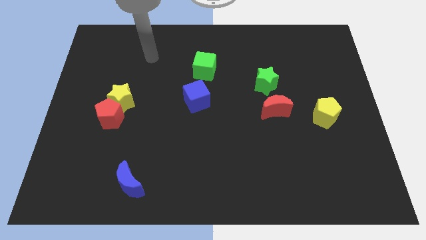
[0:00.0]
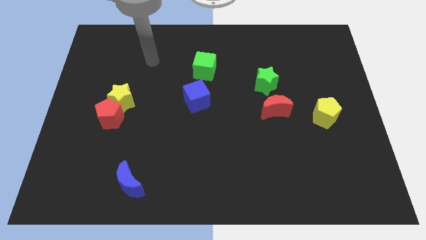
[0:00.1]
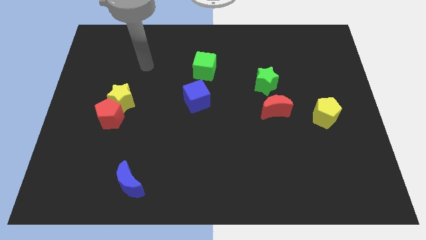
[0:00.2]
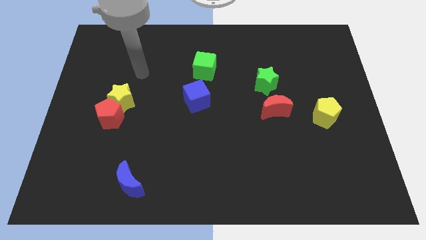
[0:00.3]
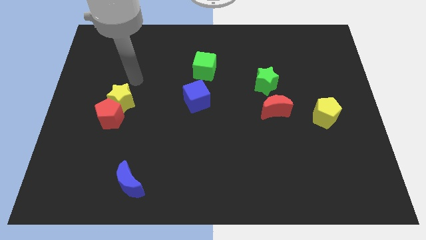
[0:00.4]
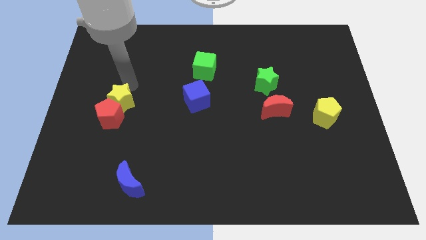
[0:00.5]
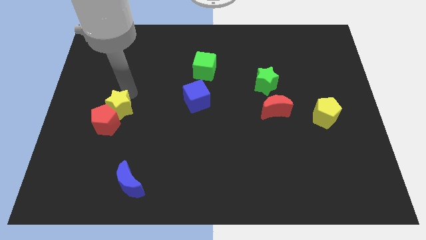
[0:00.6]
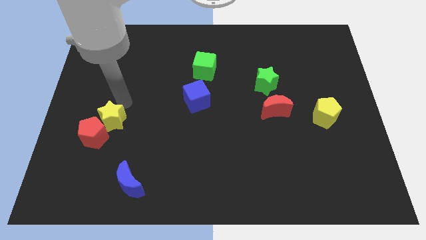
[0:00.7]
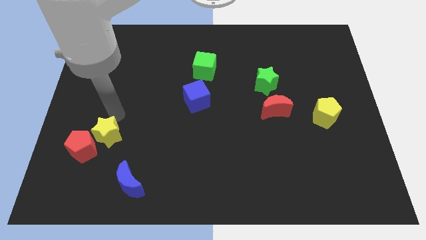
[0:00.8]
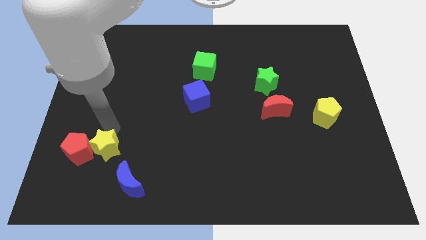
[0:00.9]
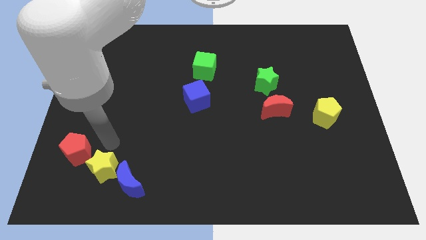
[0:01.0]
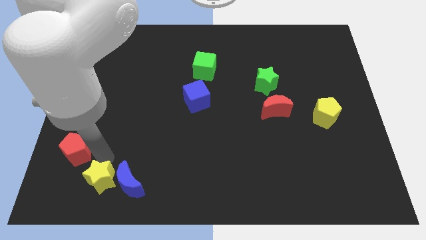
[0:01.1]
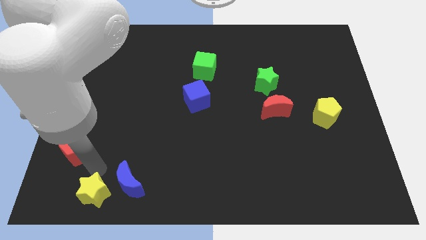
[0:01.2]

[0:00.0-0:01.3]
pull the red pentagon apart from the yellow star

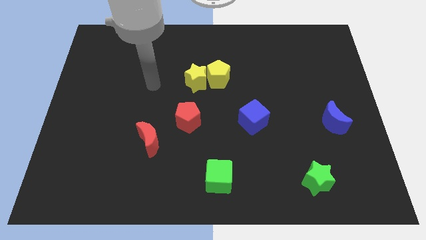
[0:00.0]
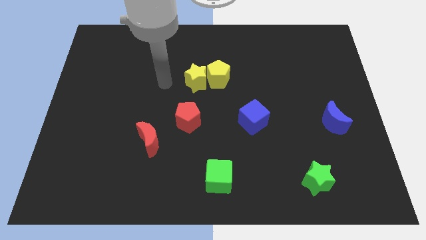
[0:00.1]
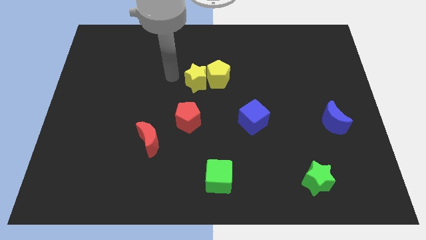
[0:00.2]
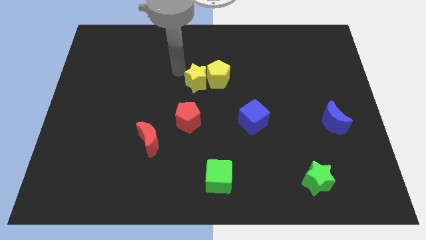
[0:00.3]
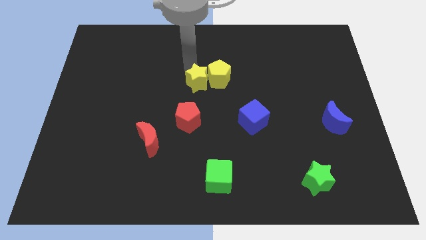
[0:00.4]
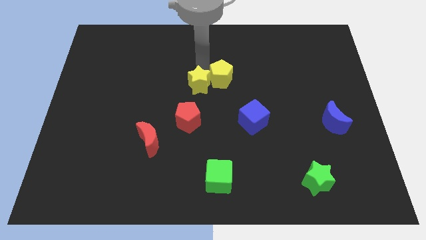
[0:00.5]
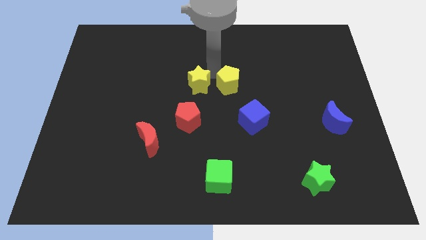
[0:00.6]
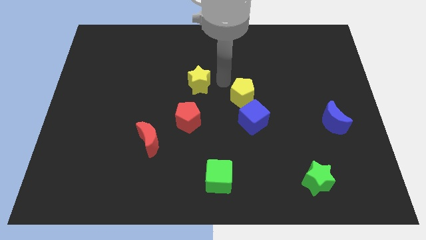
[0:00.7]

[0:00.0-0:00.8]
pull the yellow star apart from the yellow pentagon

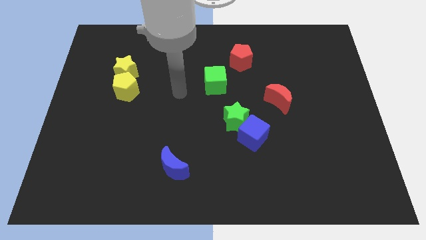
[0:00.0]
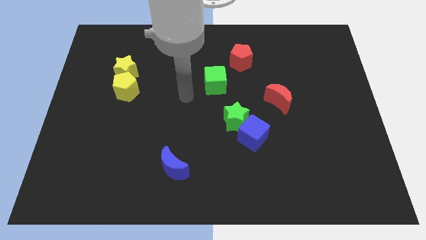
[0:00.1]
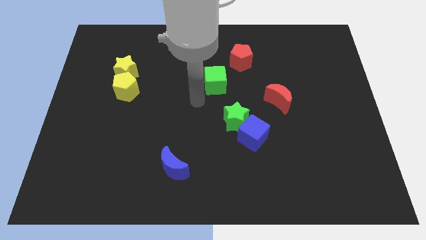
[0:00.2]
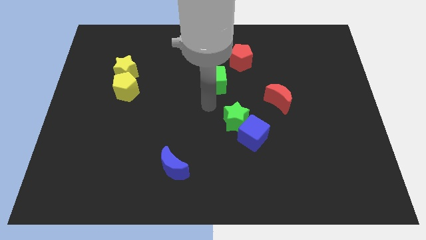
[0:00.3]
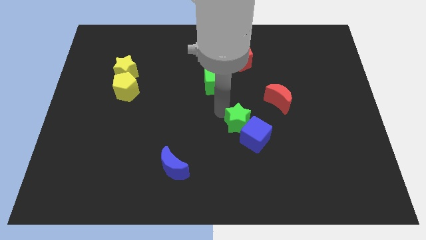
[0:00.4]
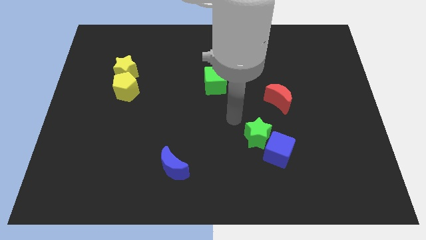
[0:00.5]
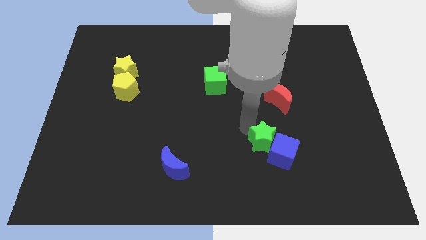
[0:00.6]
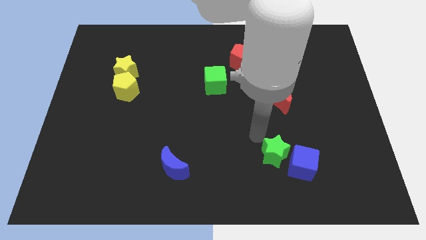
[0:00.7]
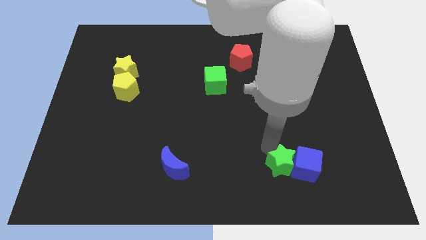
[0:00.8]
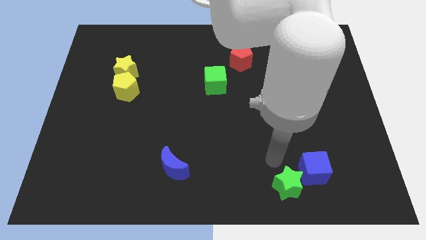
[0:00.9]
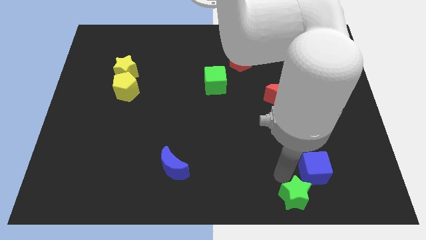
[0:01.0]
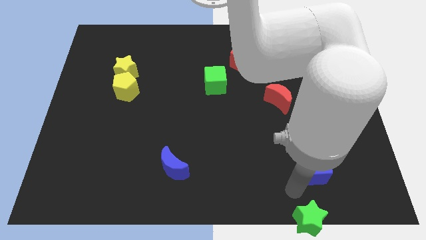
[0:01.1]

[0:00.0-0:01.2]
separate the blue cube from the green star

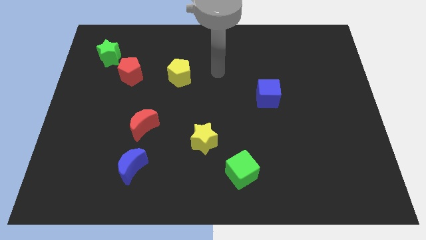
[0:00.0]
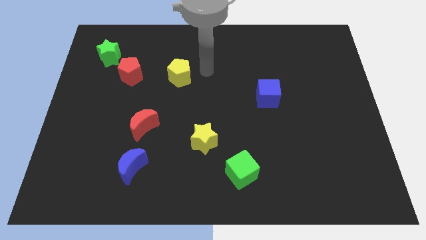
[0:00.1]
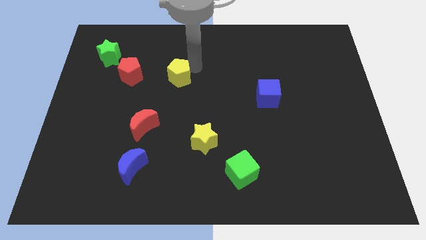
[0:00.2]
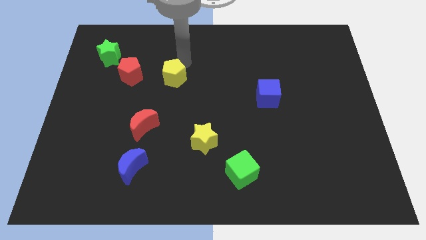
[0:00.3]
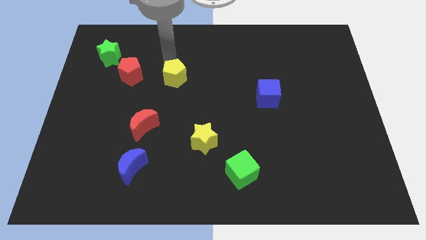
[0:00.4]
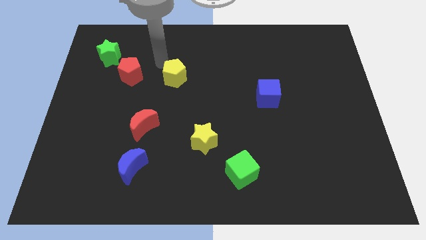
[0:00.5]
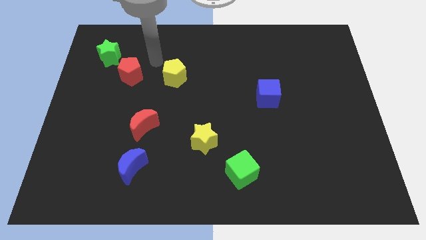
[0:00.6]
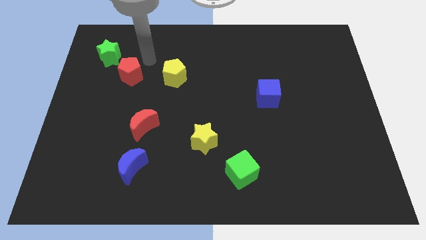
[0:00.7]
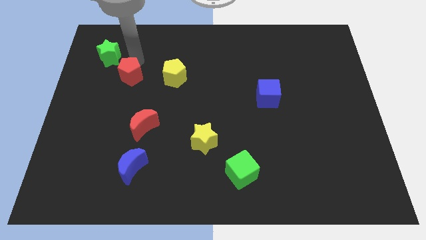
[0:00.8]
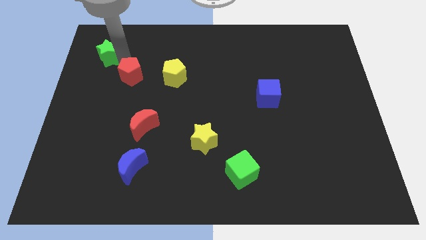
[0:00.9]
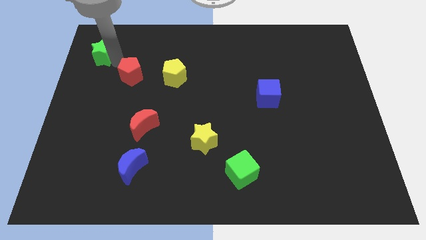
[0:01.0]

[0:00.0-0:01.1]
separate the red pentagon from the green star

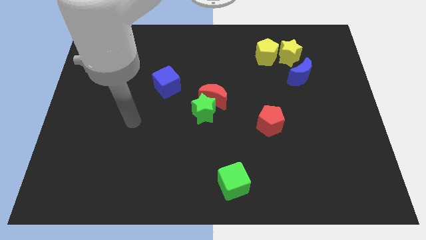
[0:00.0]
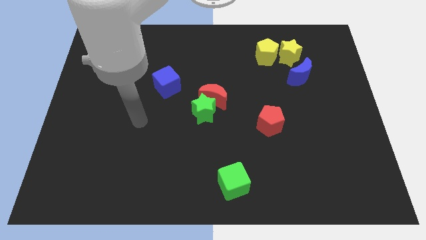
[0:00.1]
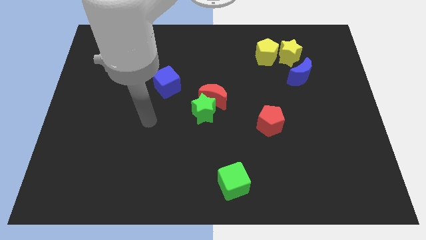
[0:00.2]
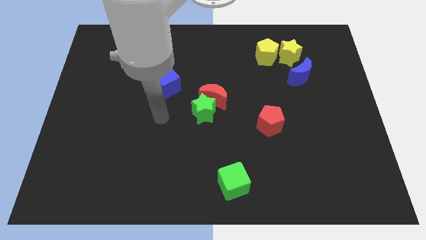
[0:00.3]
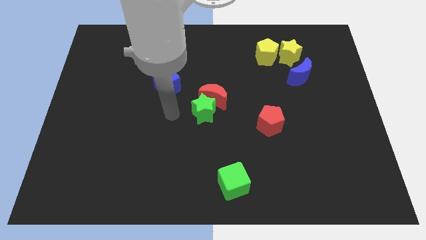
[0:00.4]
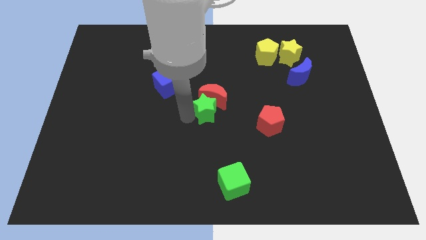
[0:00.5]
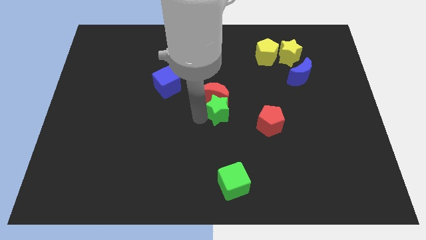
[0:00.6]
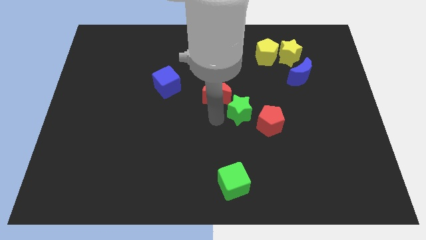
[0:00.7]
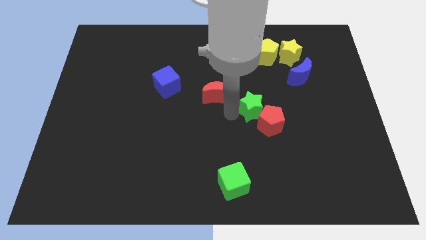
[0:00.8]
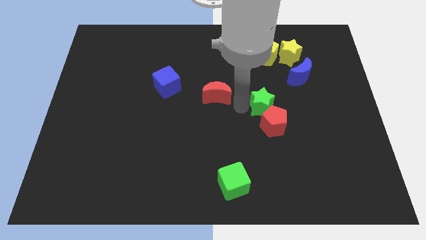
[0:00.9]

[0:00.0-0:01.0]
pull the red moon apart from the green star

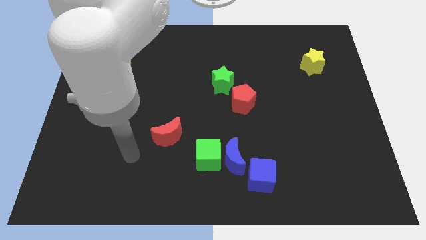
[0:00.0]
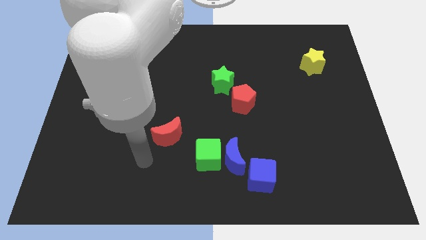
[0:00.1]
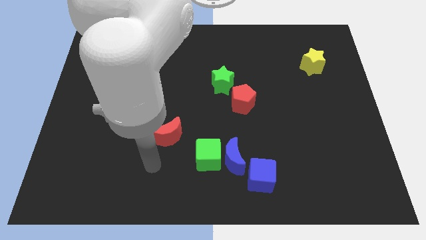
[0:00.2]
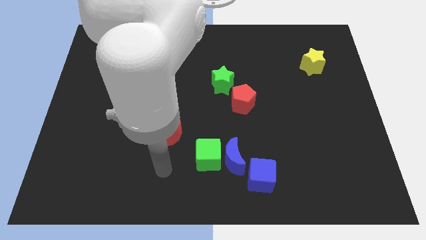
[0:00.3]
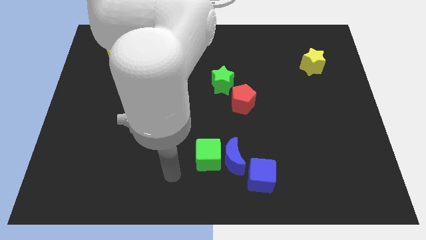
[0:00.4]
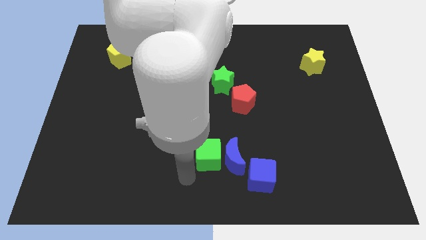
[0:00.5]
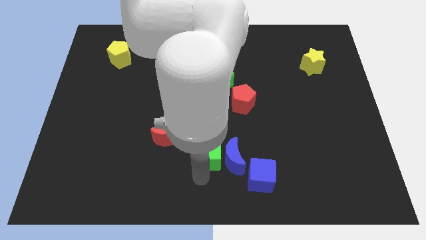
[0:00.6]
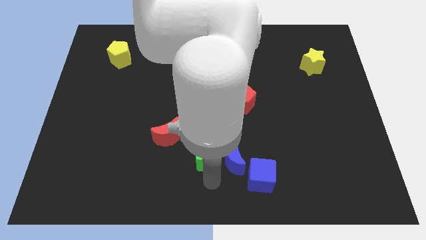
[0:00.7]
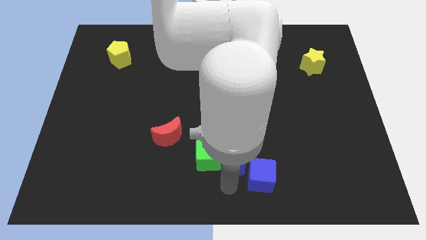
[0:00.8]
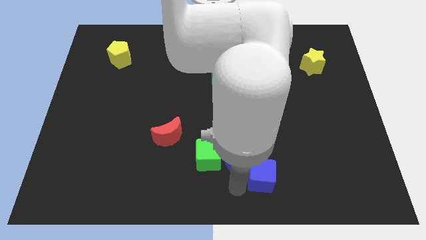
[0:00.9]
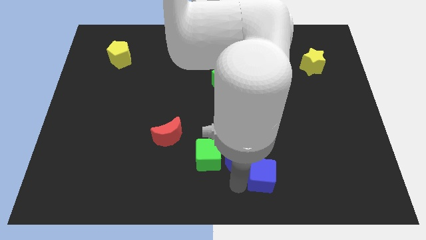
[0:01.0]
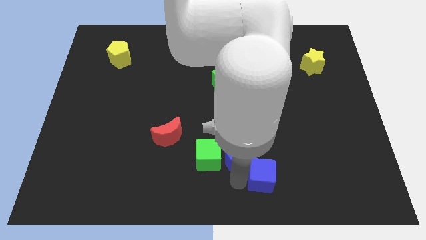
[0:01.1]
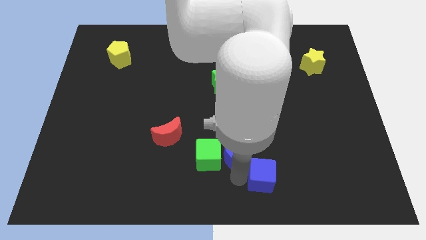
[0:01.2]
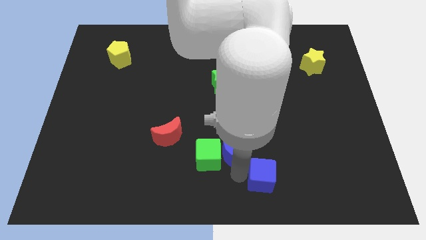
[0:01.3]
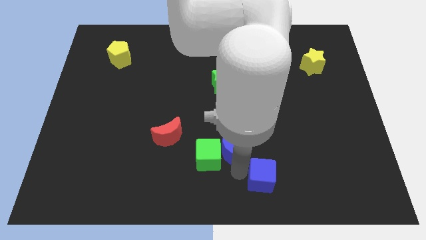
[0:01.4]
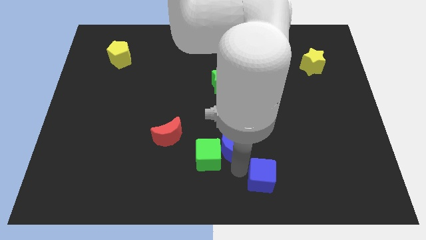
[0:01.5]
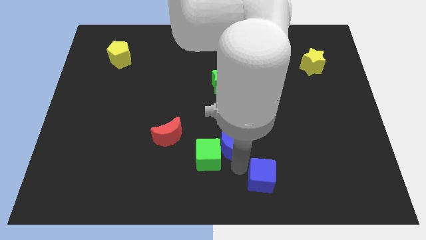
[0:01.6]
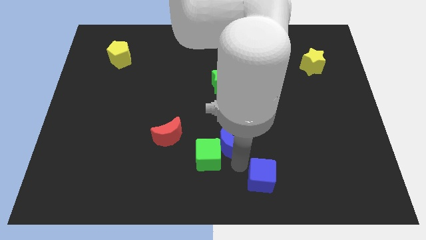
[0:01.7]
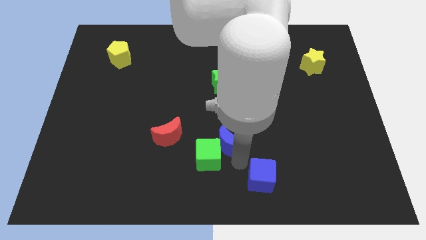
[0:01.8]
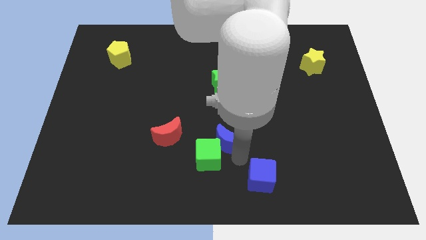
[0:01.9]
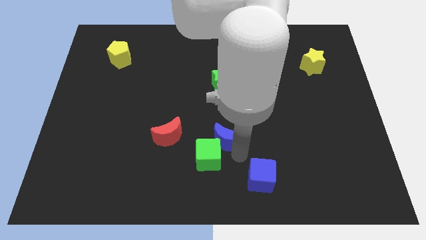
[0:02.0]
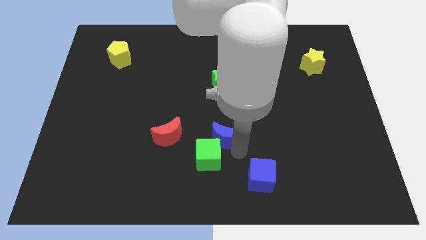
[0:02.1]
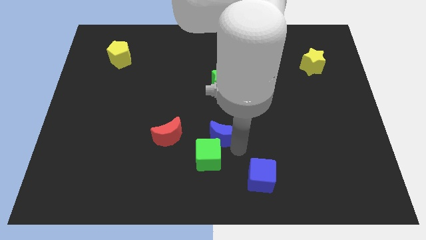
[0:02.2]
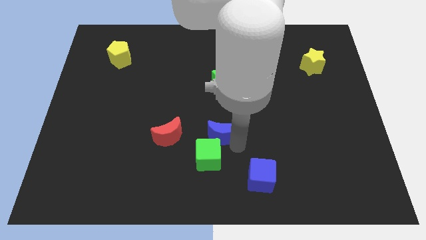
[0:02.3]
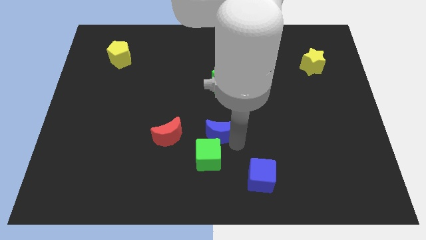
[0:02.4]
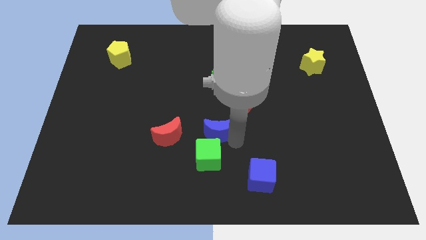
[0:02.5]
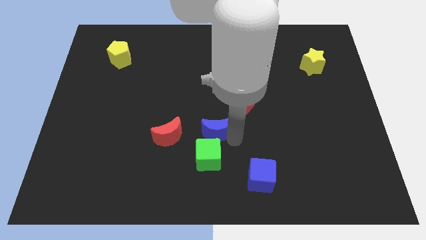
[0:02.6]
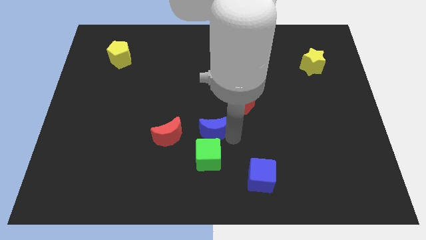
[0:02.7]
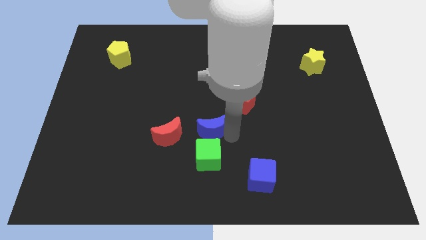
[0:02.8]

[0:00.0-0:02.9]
separate the blue moon from the green cube and blue cube

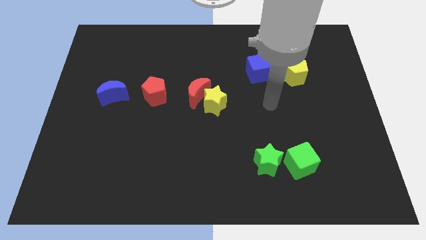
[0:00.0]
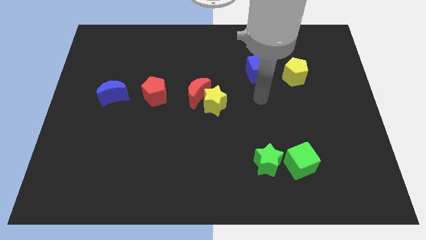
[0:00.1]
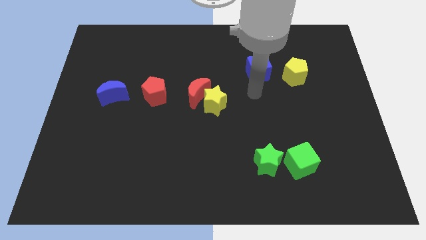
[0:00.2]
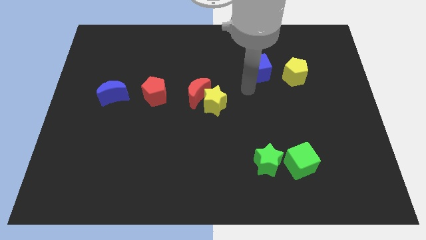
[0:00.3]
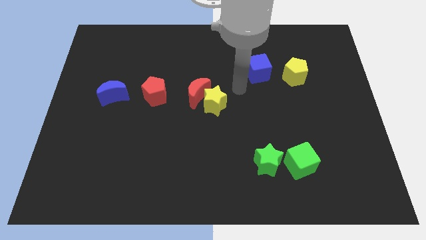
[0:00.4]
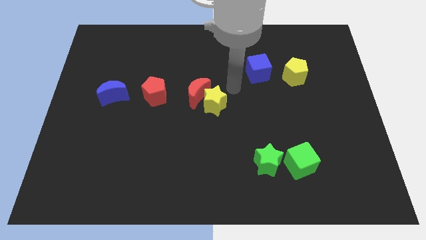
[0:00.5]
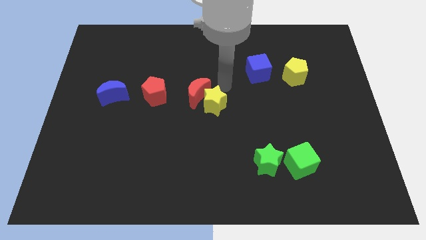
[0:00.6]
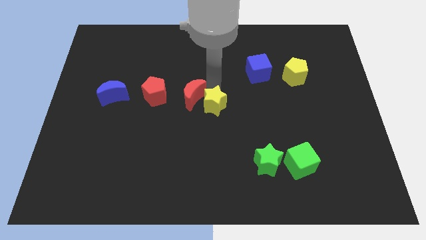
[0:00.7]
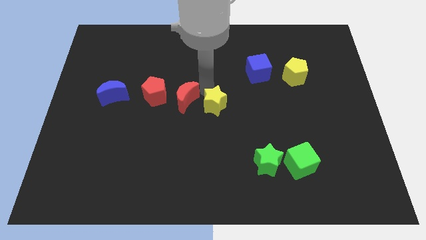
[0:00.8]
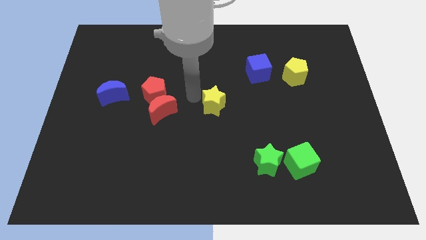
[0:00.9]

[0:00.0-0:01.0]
pull the yellow star apart from the red moon

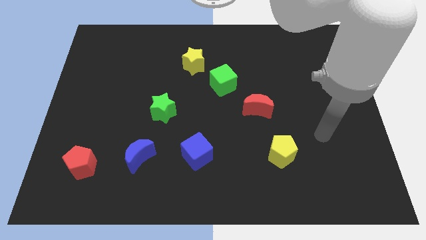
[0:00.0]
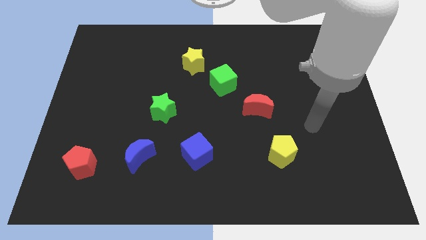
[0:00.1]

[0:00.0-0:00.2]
pull the green cube apart from the yellow star

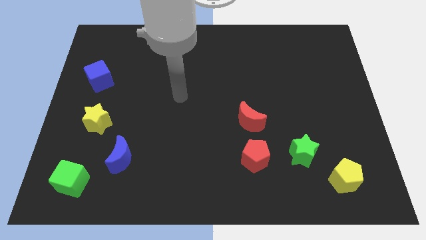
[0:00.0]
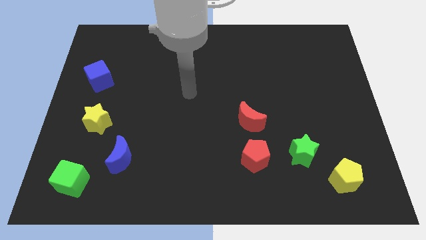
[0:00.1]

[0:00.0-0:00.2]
pull the red moon apart from the red pentagon
